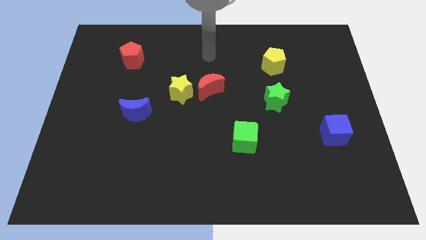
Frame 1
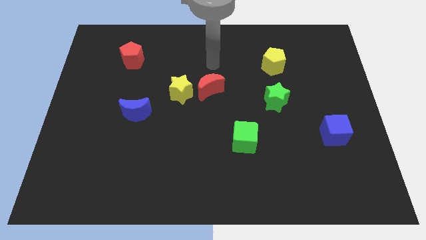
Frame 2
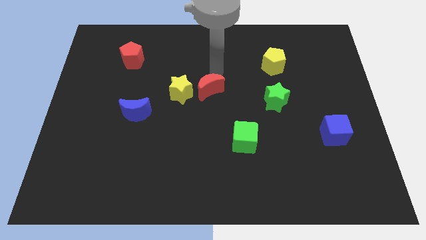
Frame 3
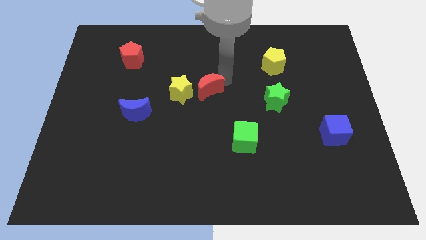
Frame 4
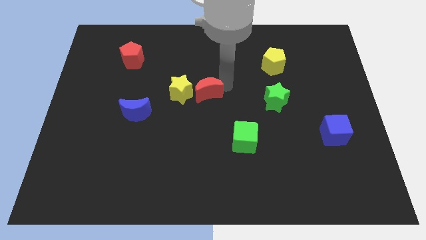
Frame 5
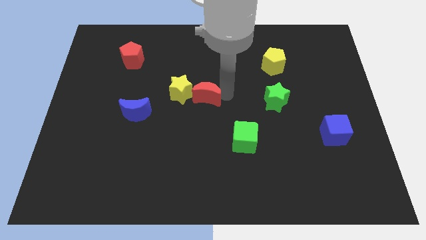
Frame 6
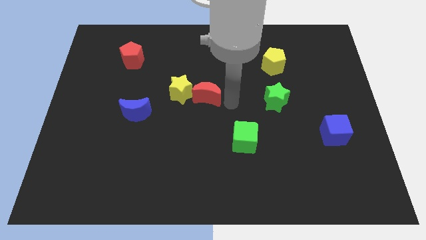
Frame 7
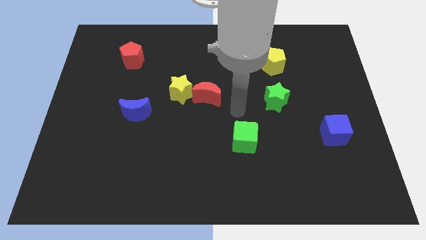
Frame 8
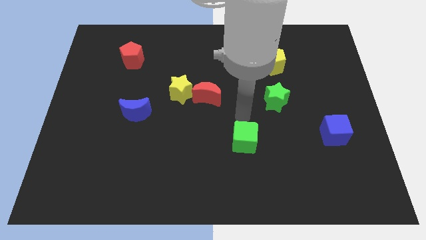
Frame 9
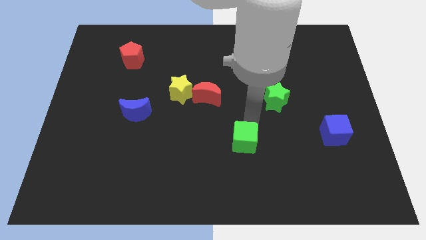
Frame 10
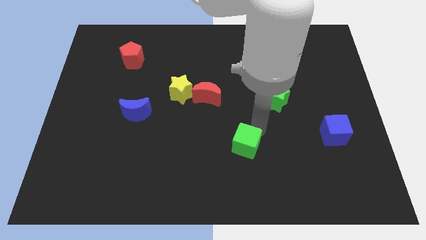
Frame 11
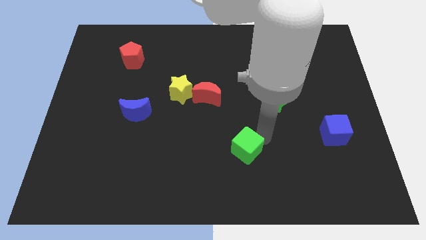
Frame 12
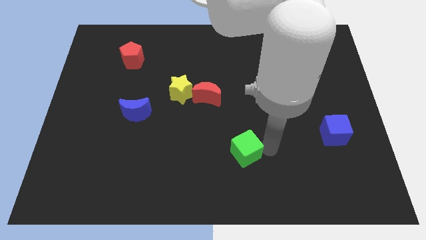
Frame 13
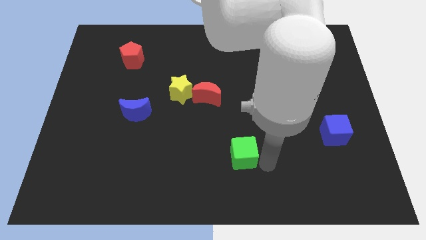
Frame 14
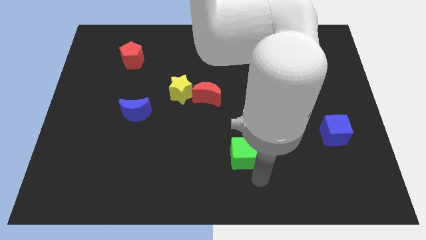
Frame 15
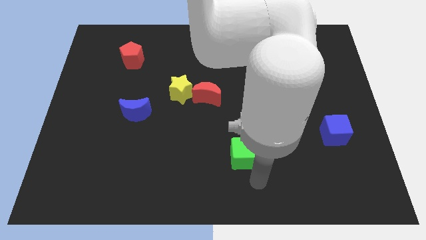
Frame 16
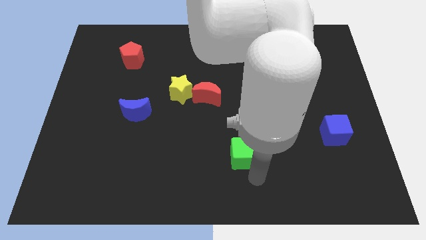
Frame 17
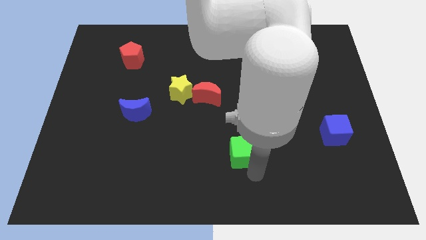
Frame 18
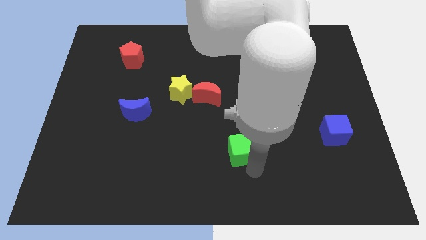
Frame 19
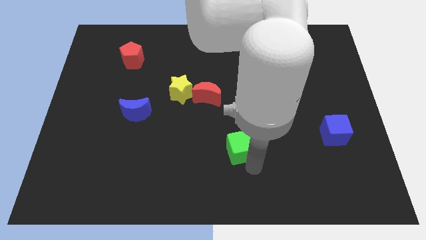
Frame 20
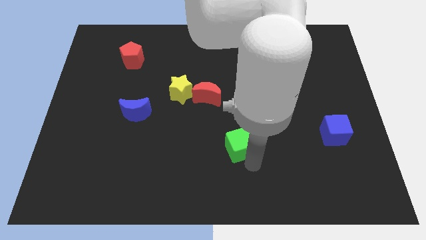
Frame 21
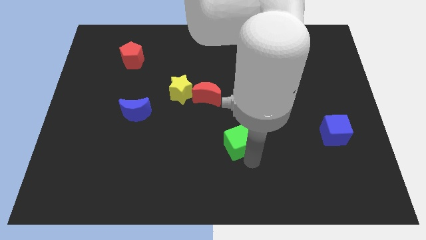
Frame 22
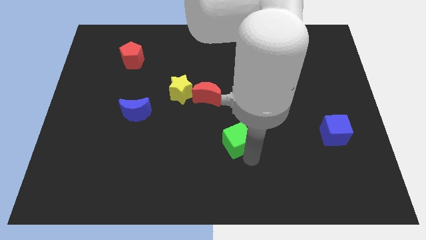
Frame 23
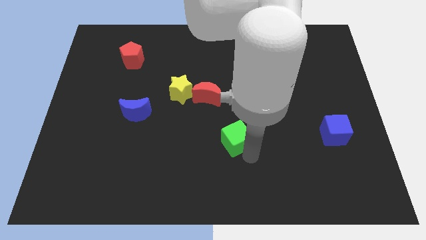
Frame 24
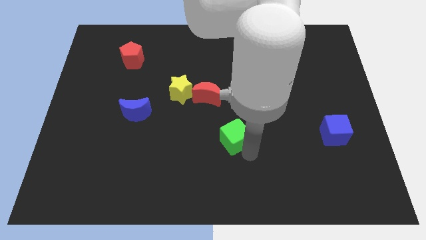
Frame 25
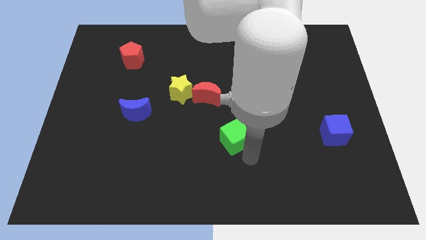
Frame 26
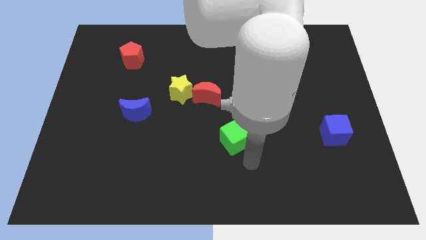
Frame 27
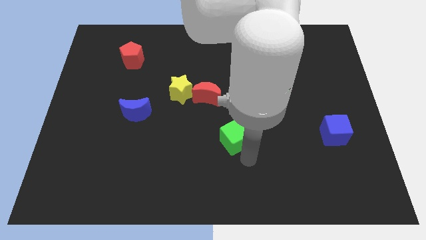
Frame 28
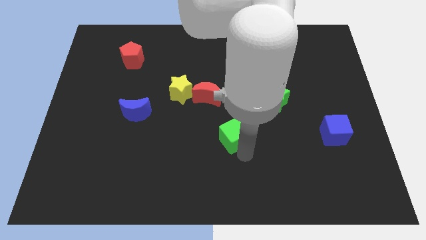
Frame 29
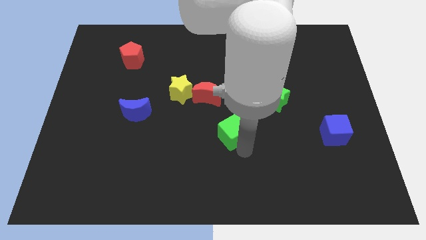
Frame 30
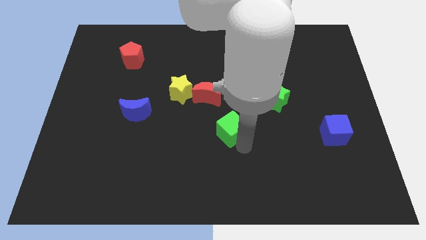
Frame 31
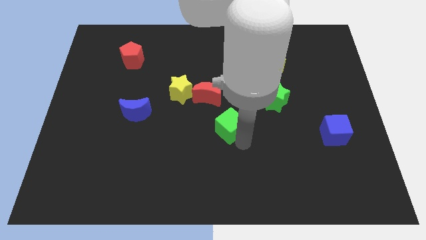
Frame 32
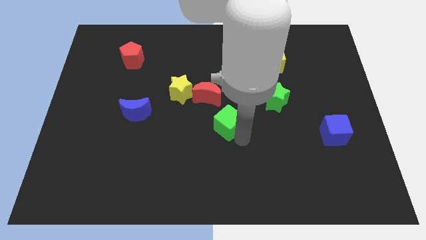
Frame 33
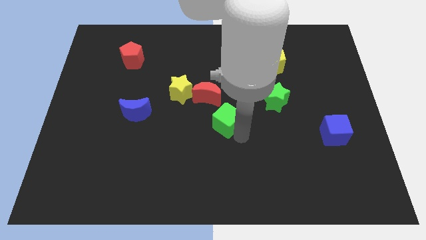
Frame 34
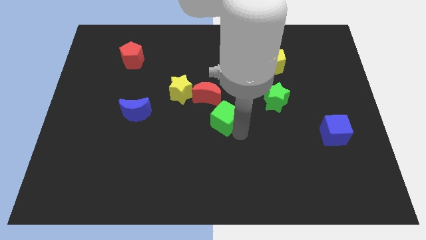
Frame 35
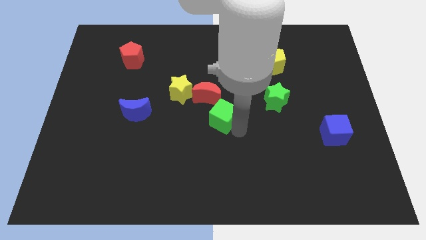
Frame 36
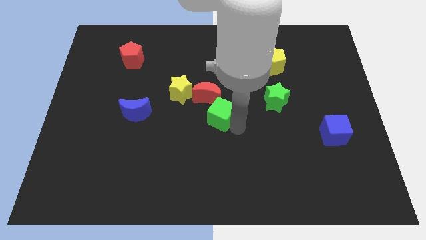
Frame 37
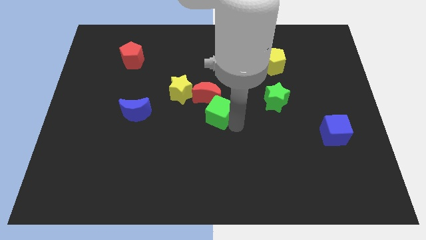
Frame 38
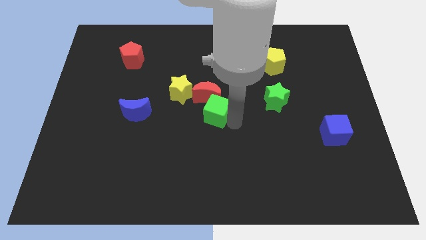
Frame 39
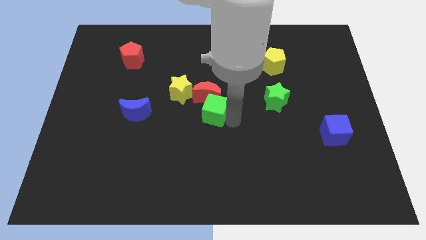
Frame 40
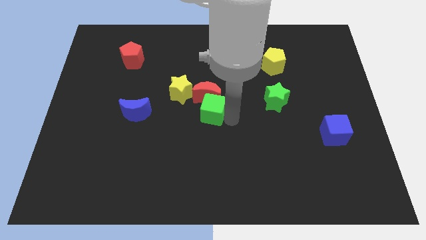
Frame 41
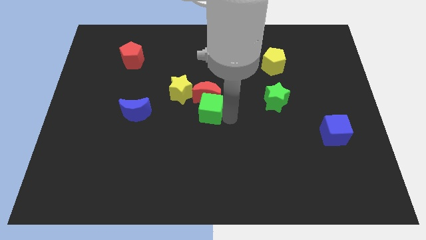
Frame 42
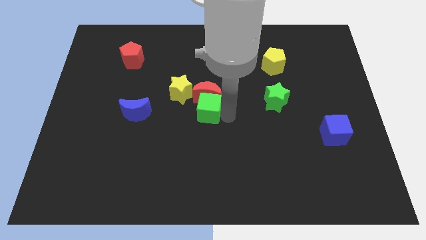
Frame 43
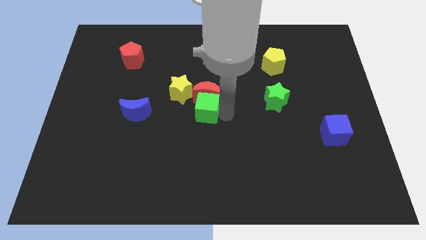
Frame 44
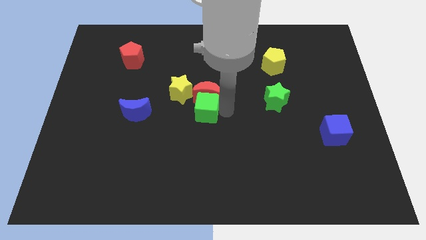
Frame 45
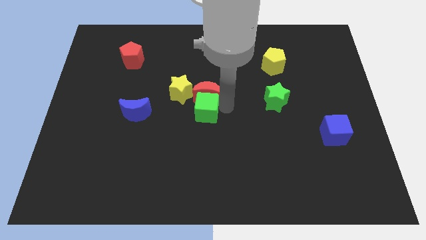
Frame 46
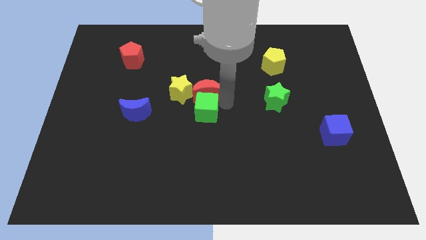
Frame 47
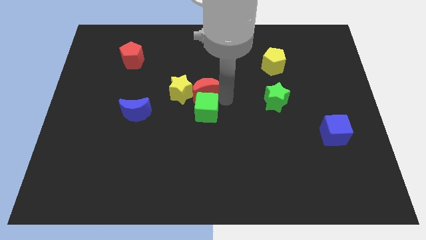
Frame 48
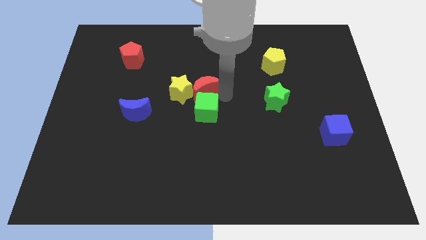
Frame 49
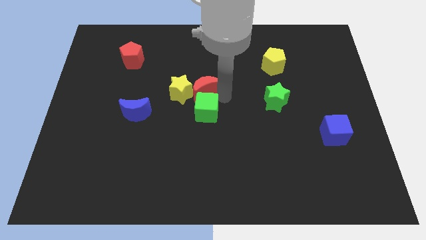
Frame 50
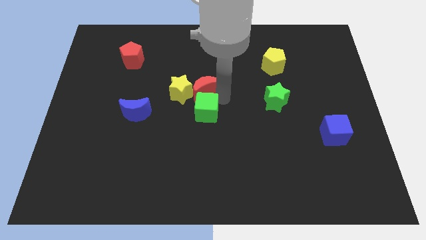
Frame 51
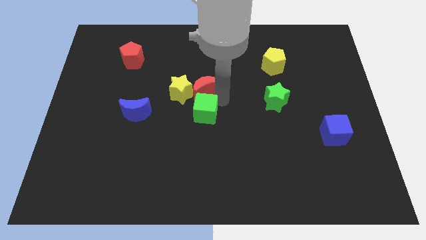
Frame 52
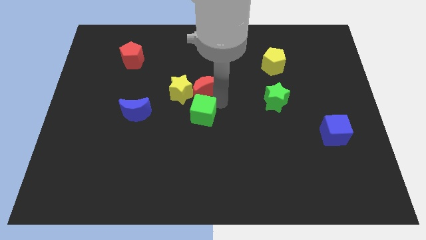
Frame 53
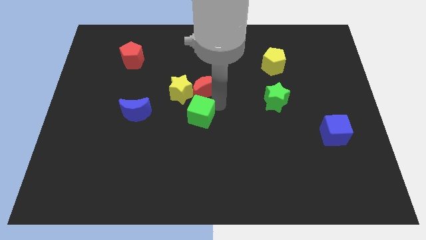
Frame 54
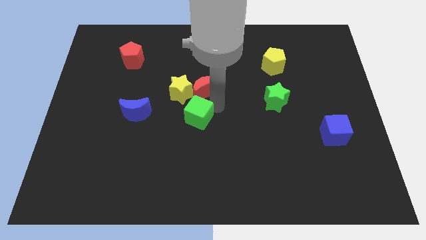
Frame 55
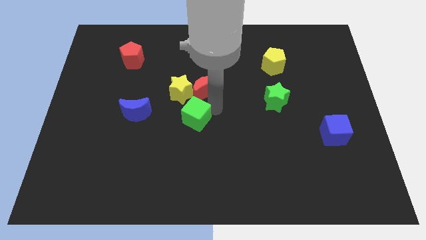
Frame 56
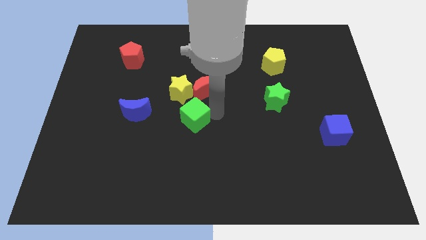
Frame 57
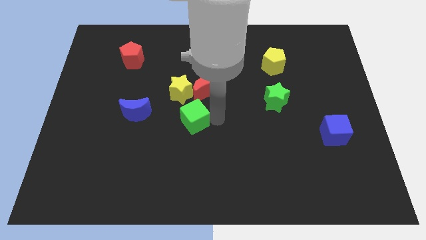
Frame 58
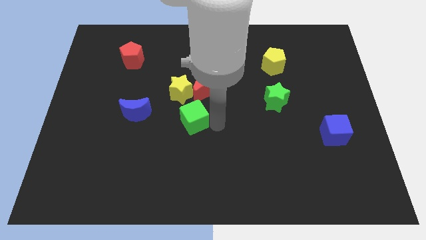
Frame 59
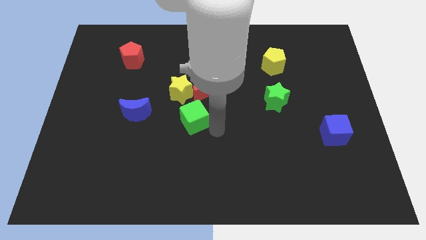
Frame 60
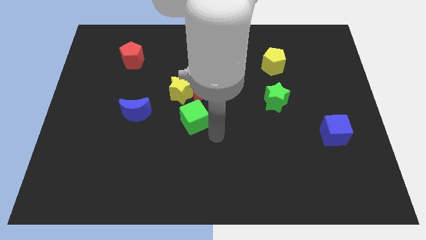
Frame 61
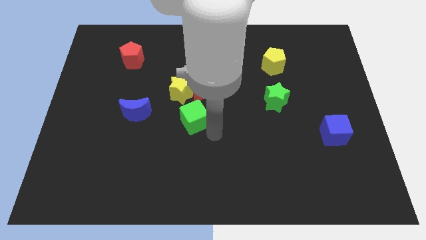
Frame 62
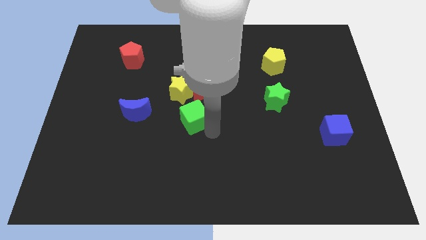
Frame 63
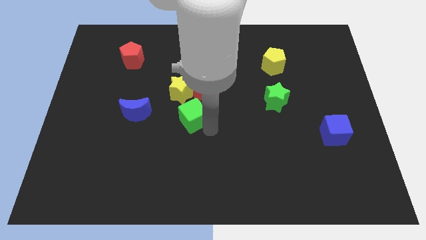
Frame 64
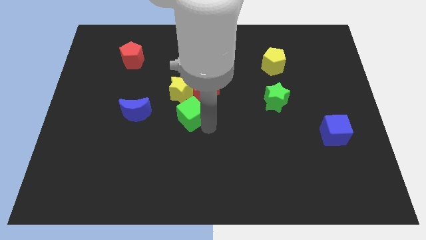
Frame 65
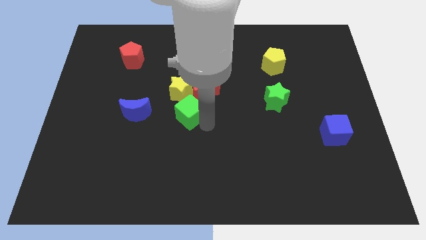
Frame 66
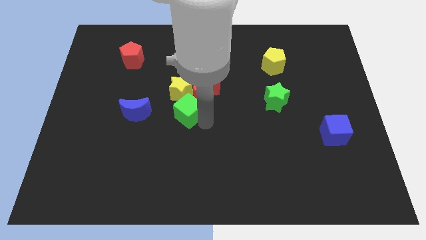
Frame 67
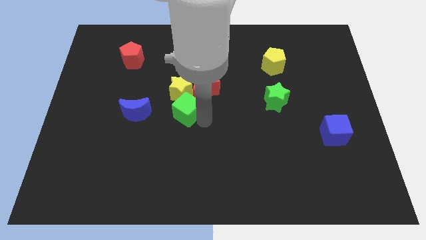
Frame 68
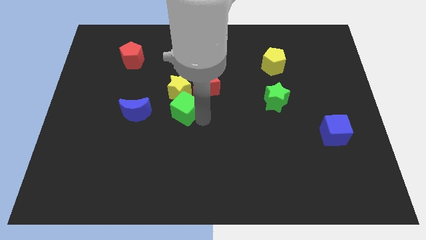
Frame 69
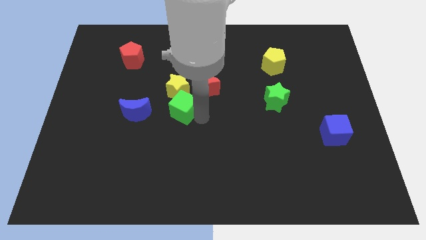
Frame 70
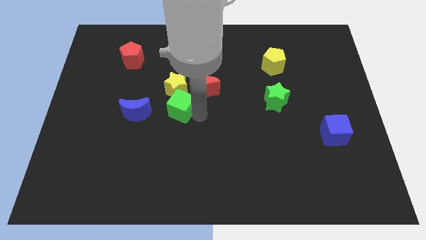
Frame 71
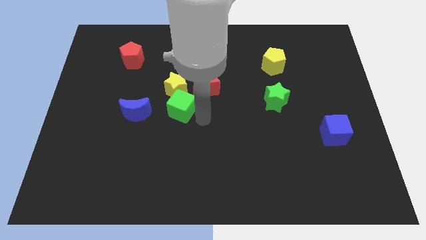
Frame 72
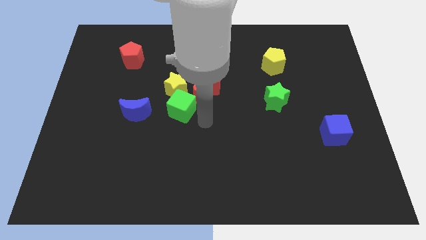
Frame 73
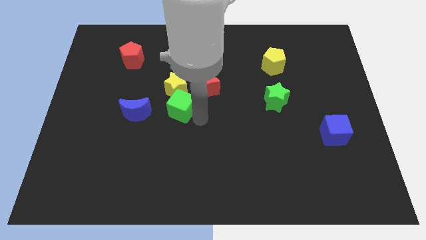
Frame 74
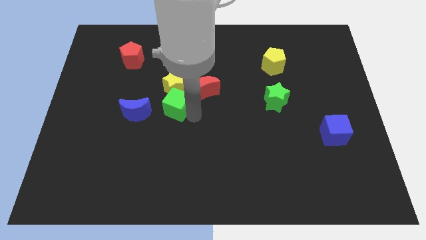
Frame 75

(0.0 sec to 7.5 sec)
push the green cube left of the red moon
